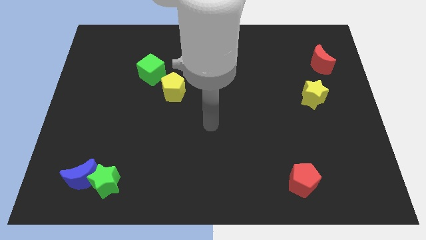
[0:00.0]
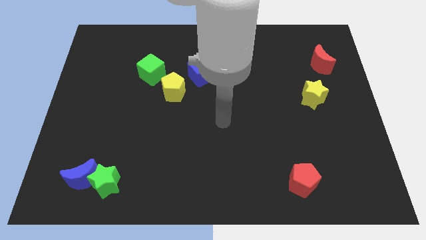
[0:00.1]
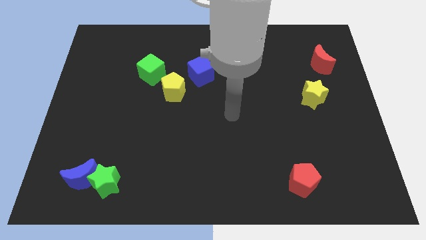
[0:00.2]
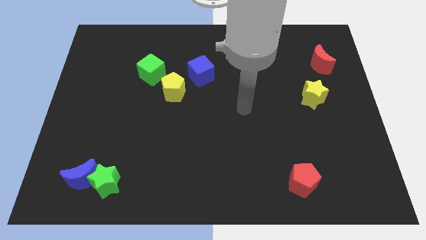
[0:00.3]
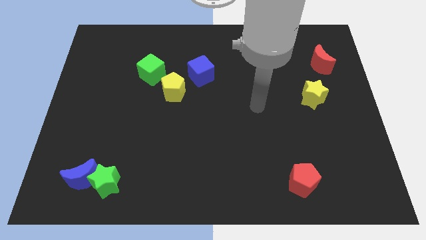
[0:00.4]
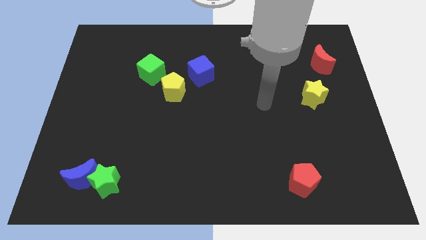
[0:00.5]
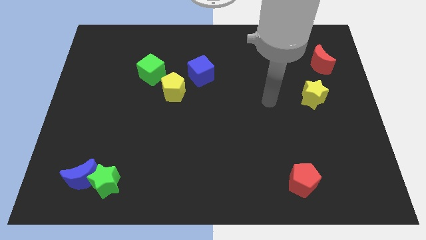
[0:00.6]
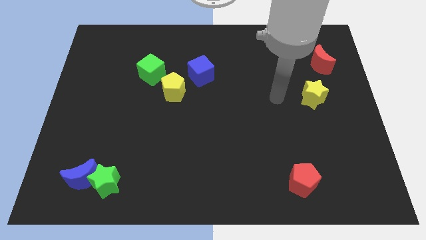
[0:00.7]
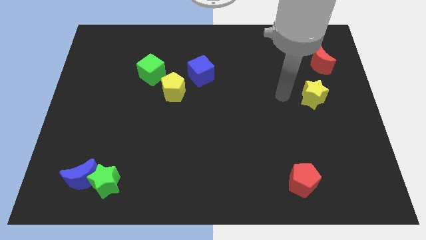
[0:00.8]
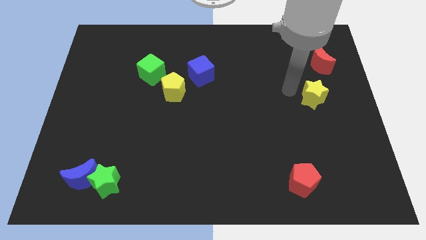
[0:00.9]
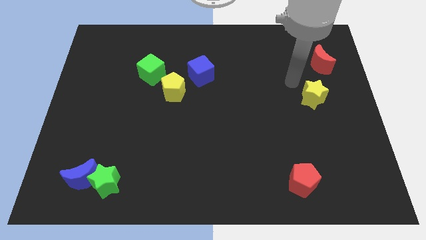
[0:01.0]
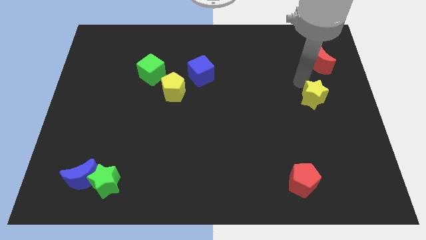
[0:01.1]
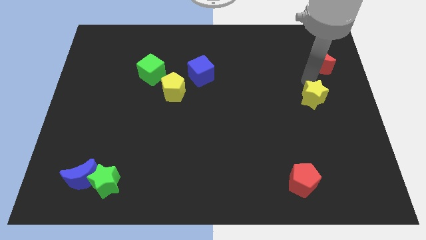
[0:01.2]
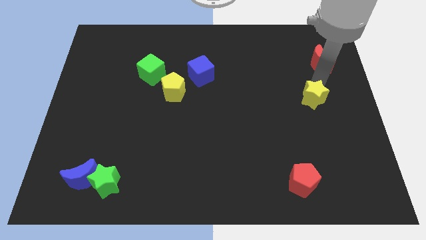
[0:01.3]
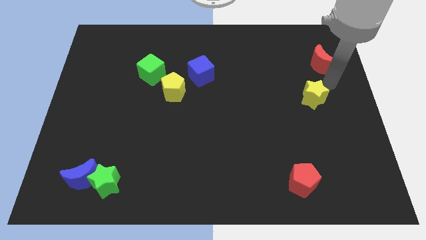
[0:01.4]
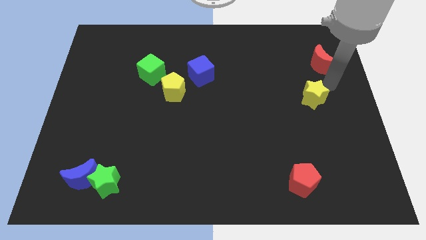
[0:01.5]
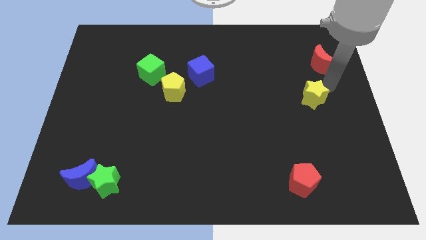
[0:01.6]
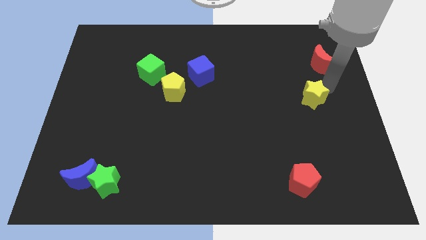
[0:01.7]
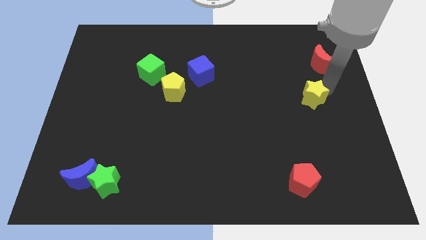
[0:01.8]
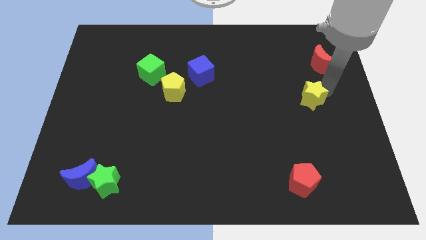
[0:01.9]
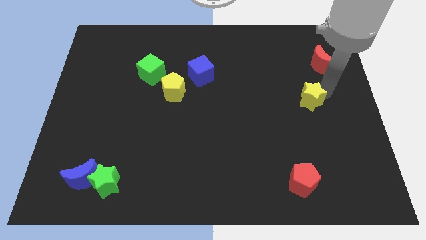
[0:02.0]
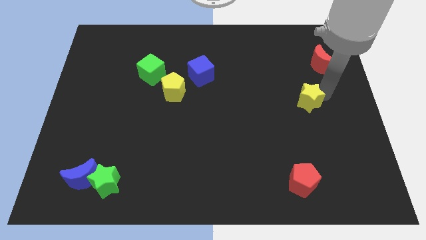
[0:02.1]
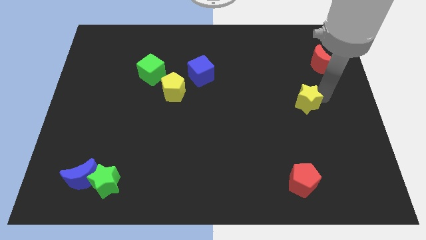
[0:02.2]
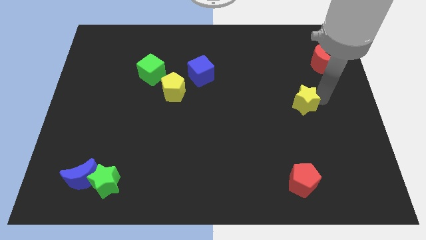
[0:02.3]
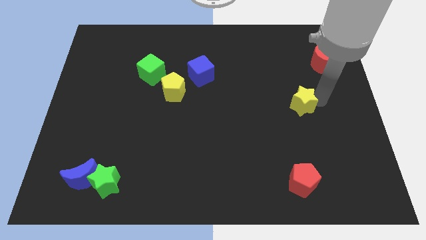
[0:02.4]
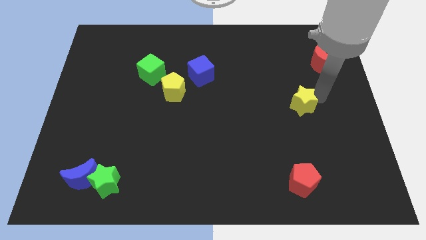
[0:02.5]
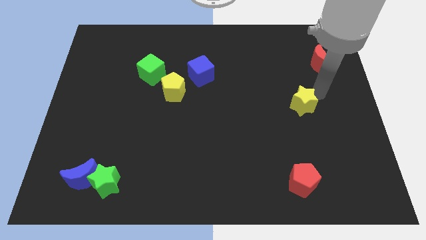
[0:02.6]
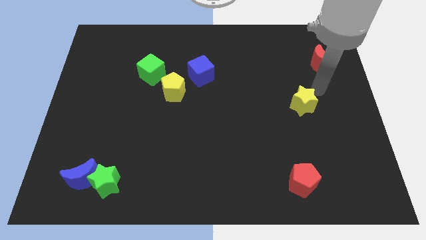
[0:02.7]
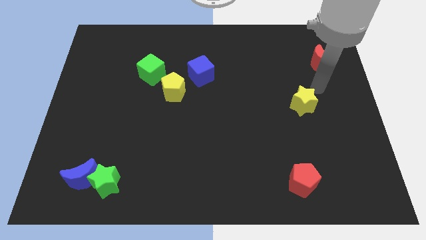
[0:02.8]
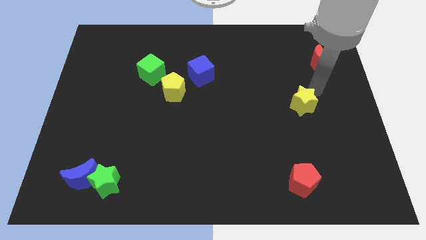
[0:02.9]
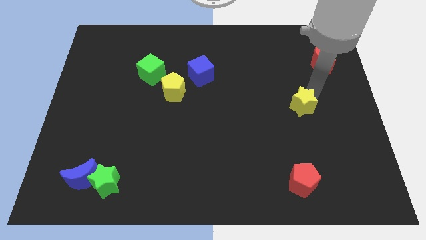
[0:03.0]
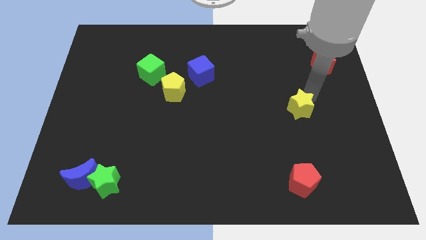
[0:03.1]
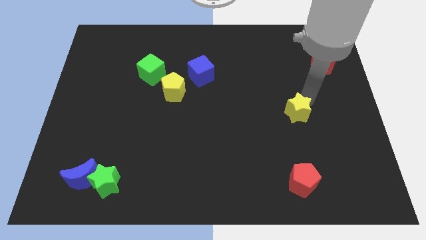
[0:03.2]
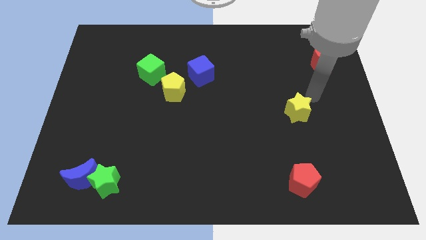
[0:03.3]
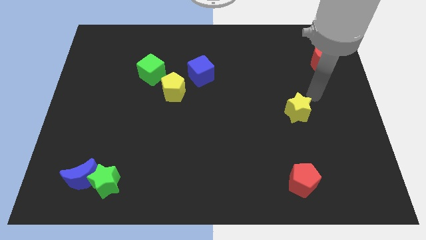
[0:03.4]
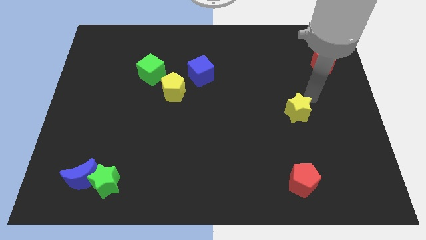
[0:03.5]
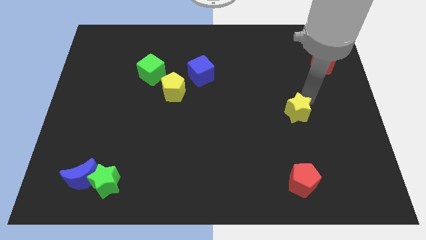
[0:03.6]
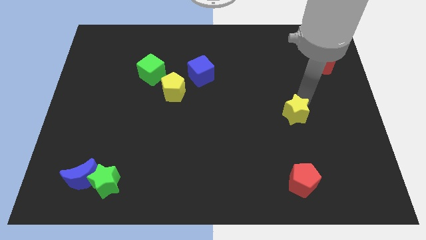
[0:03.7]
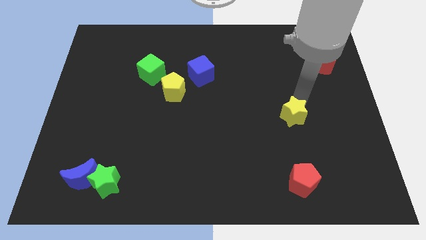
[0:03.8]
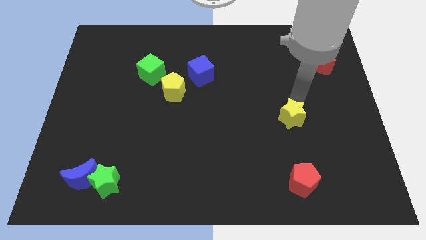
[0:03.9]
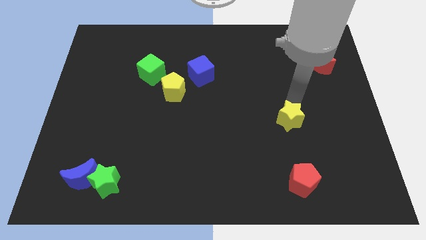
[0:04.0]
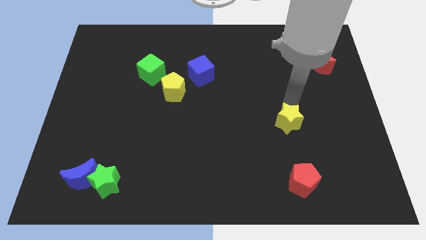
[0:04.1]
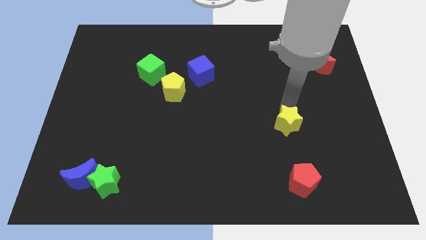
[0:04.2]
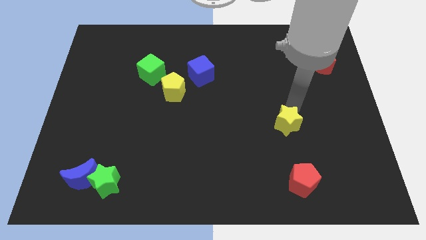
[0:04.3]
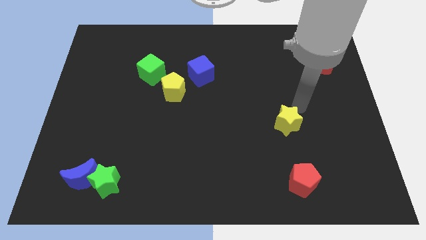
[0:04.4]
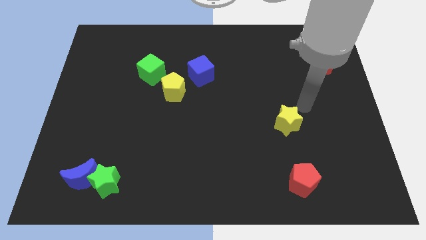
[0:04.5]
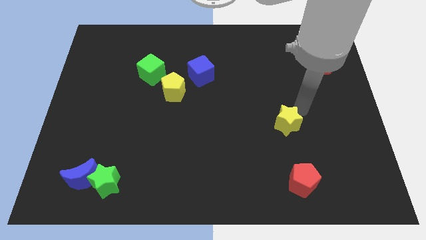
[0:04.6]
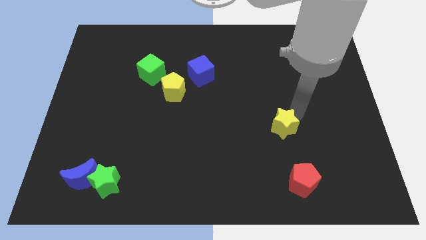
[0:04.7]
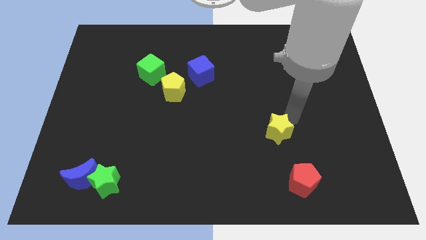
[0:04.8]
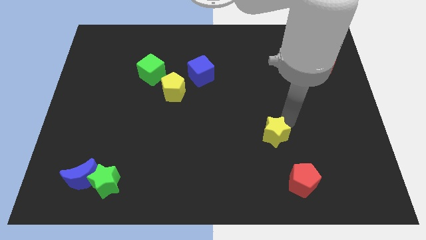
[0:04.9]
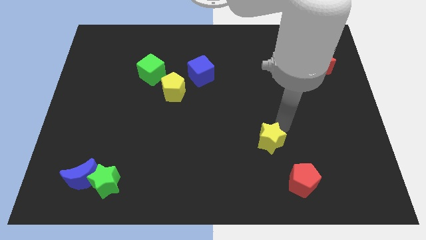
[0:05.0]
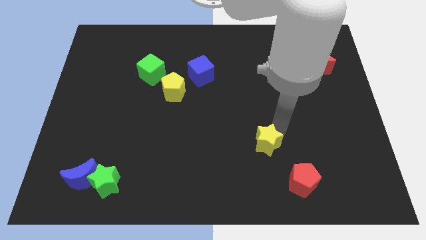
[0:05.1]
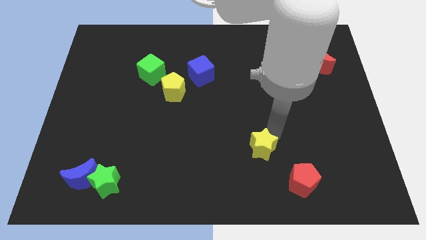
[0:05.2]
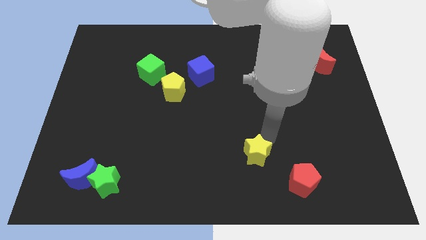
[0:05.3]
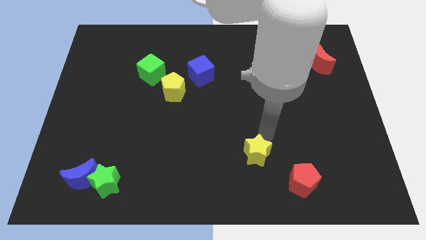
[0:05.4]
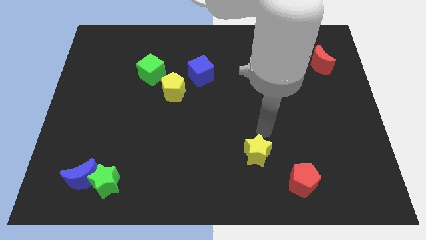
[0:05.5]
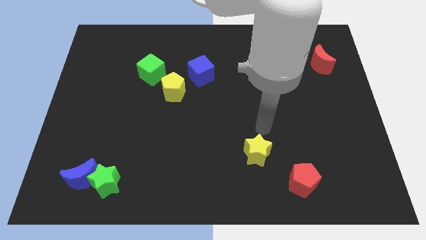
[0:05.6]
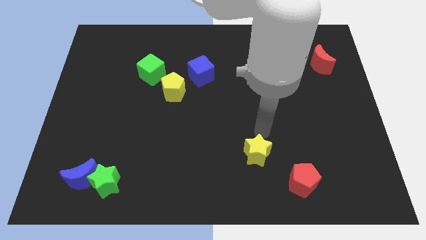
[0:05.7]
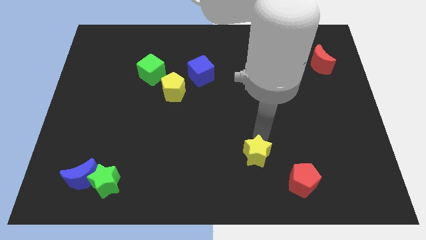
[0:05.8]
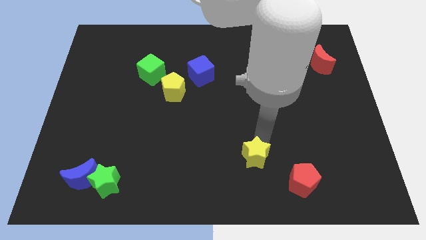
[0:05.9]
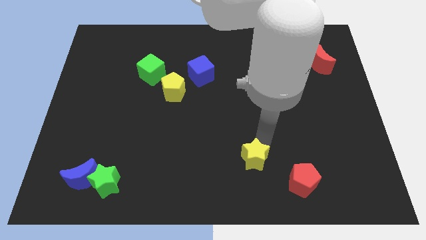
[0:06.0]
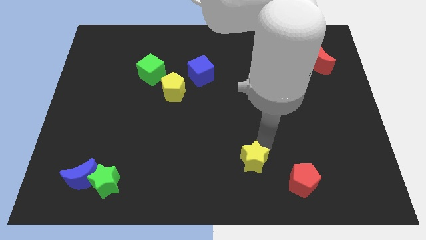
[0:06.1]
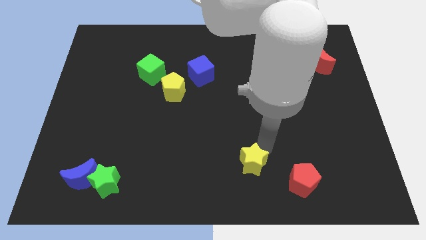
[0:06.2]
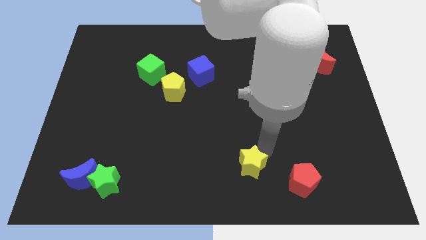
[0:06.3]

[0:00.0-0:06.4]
slide the yellow star to the bottom

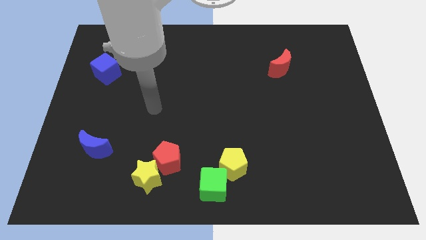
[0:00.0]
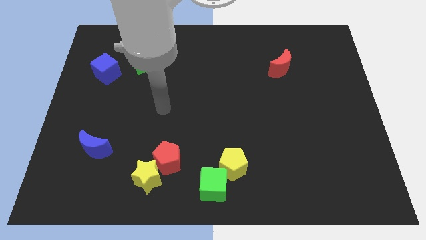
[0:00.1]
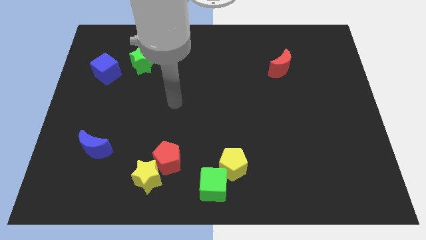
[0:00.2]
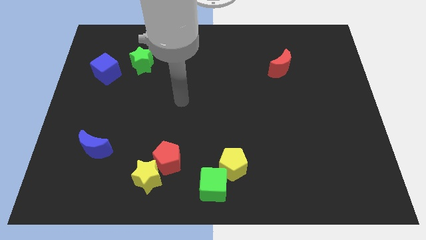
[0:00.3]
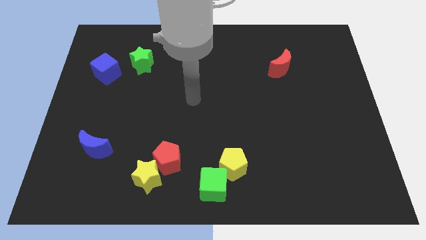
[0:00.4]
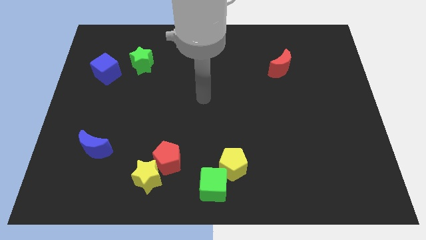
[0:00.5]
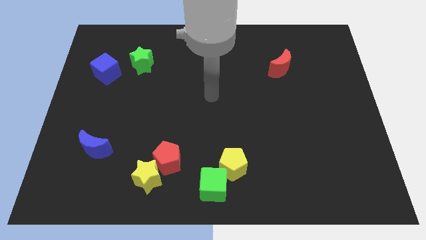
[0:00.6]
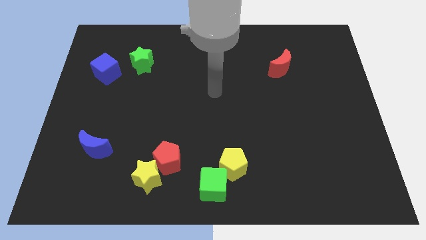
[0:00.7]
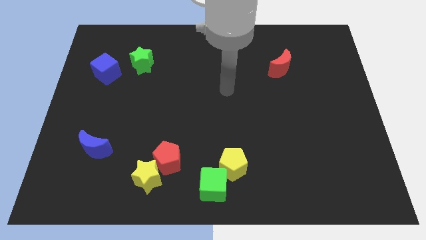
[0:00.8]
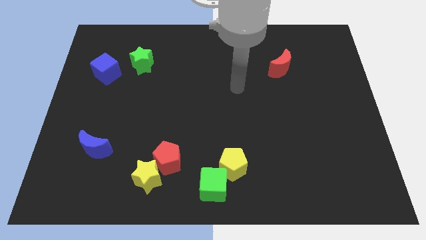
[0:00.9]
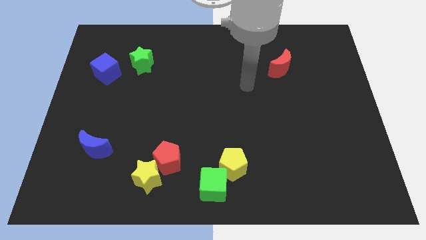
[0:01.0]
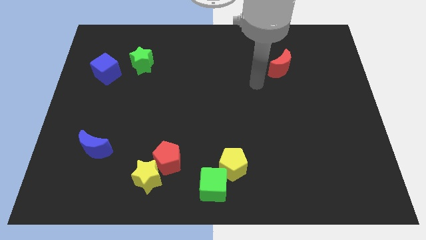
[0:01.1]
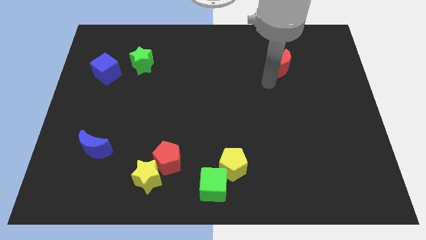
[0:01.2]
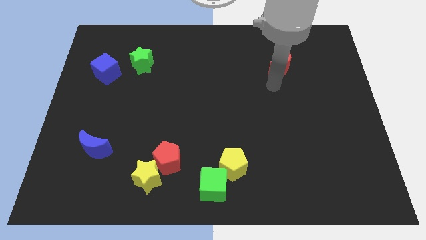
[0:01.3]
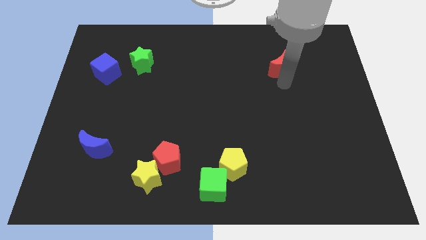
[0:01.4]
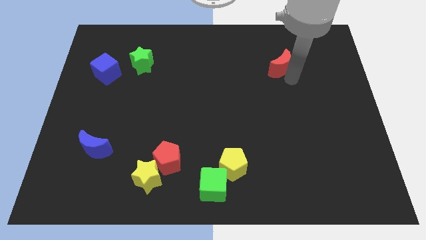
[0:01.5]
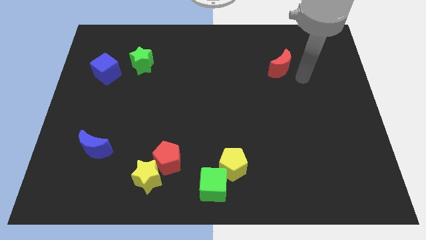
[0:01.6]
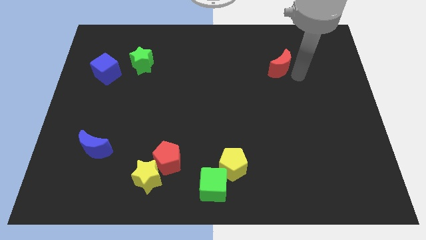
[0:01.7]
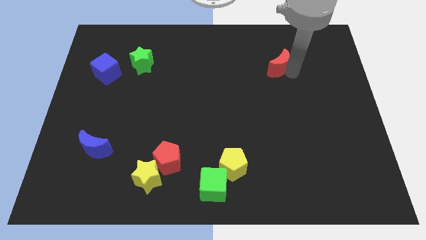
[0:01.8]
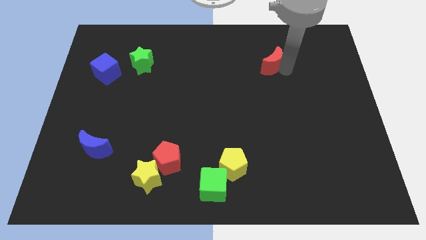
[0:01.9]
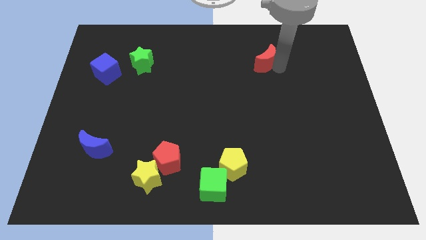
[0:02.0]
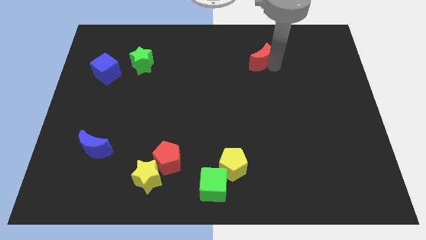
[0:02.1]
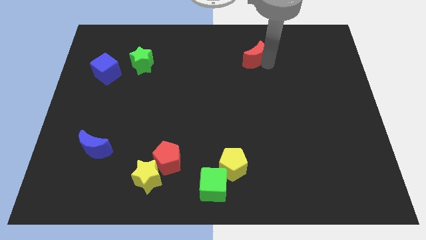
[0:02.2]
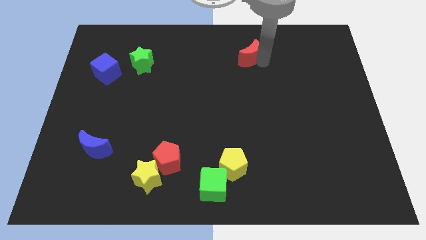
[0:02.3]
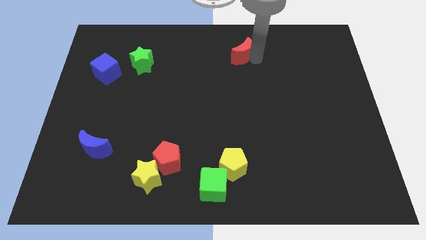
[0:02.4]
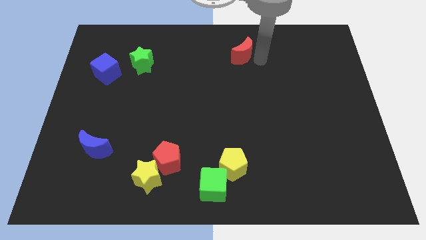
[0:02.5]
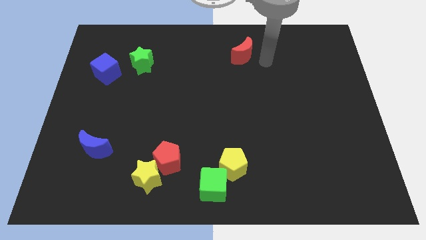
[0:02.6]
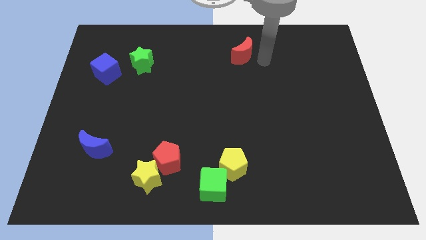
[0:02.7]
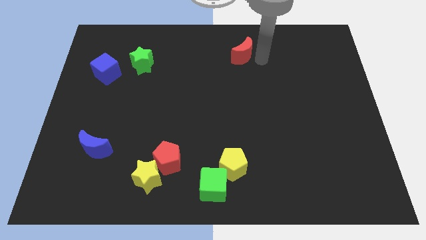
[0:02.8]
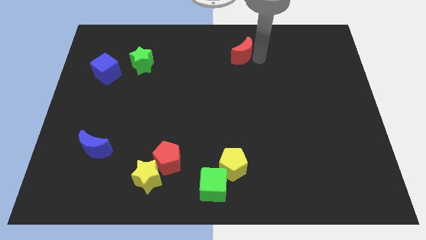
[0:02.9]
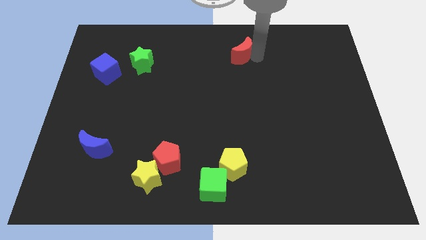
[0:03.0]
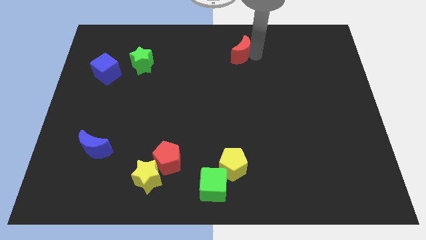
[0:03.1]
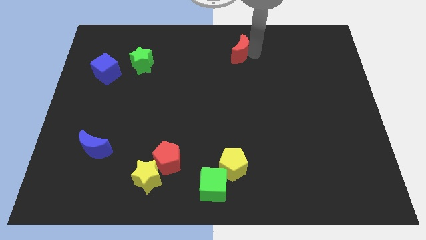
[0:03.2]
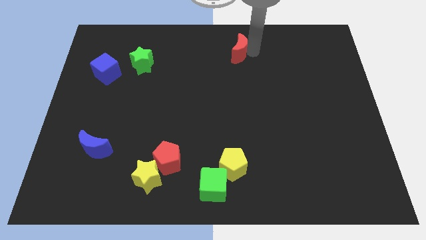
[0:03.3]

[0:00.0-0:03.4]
slide the red moon to the top
